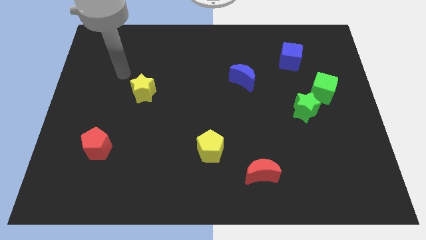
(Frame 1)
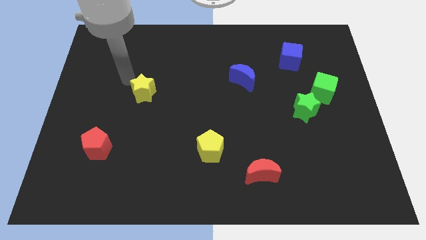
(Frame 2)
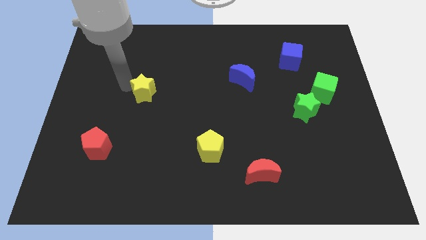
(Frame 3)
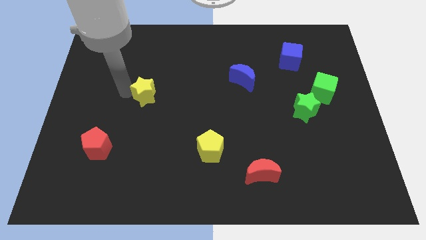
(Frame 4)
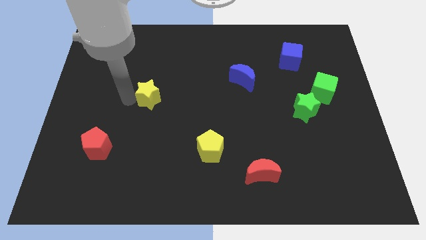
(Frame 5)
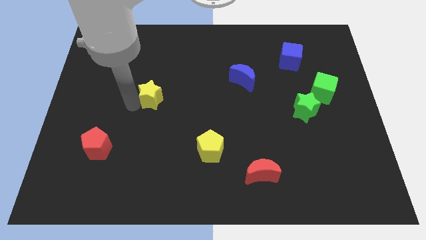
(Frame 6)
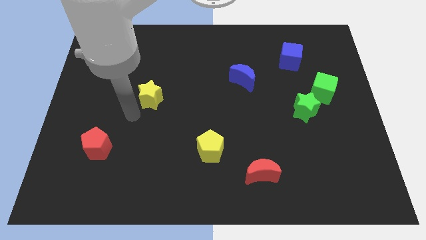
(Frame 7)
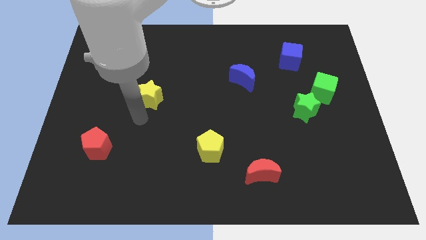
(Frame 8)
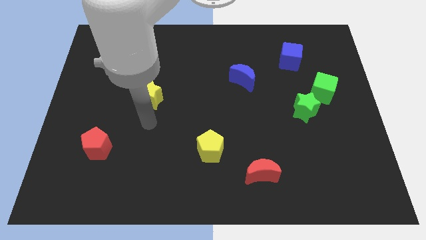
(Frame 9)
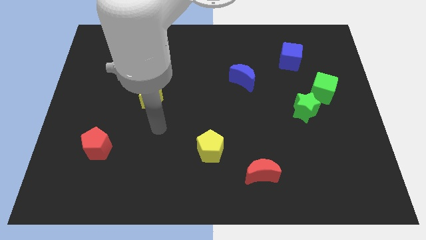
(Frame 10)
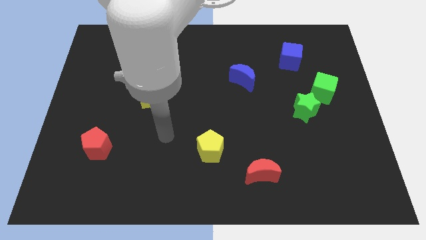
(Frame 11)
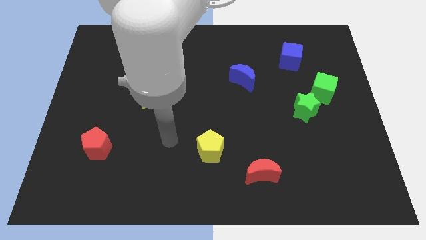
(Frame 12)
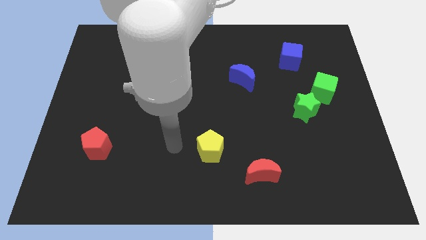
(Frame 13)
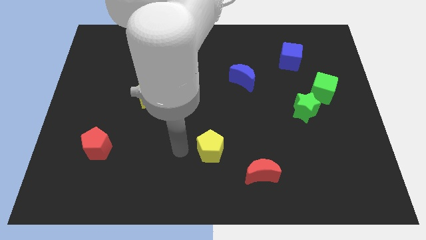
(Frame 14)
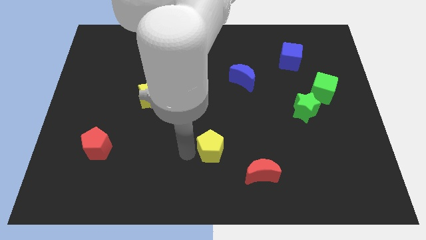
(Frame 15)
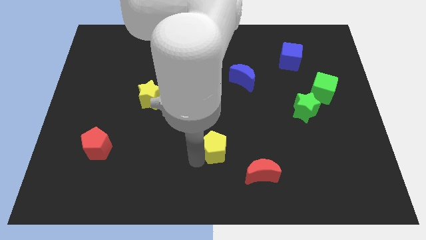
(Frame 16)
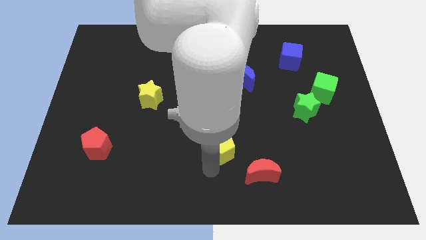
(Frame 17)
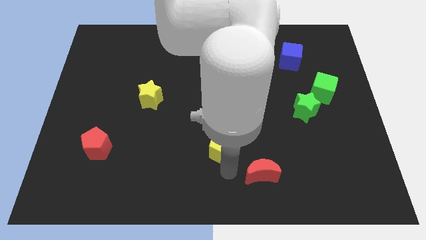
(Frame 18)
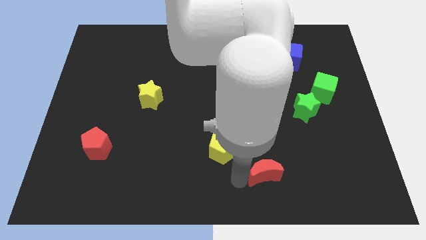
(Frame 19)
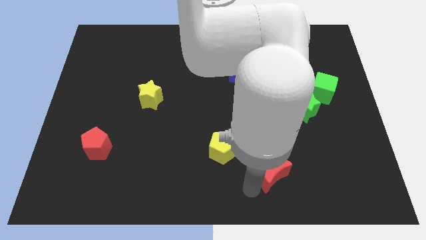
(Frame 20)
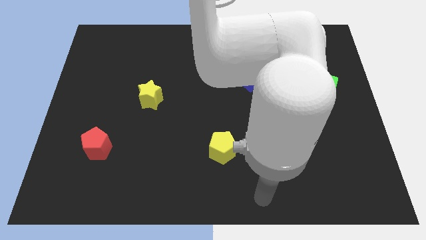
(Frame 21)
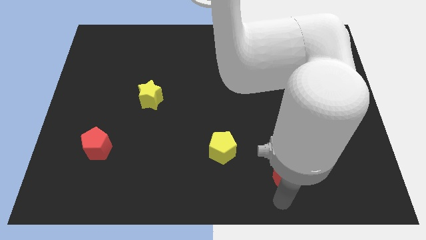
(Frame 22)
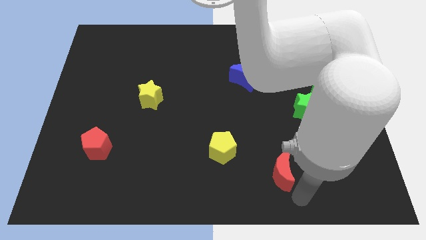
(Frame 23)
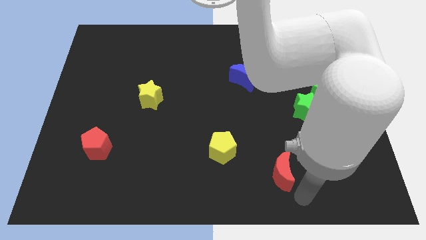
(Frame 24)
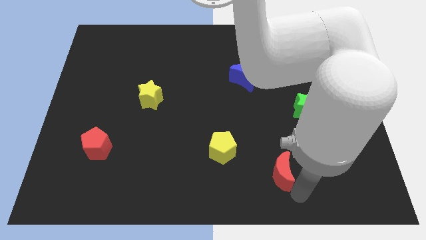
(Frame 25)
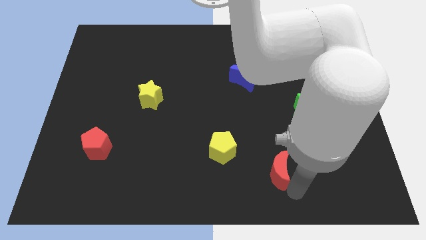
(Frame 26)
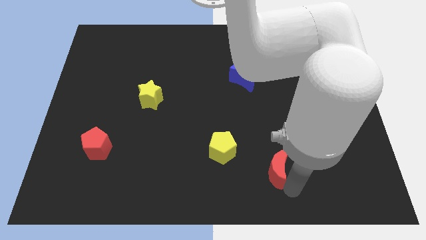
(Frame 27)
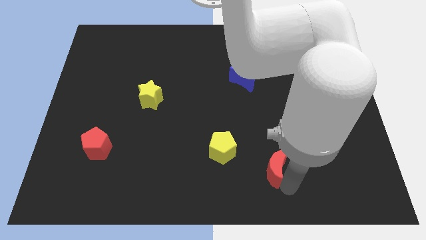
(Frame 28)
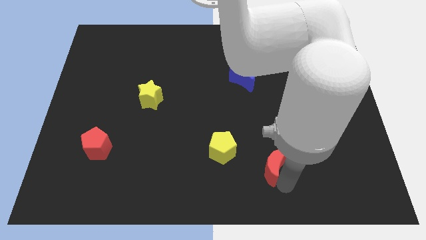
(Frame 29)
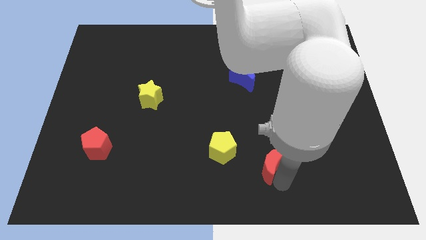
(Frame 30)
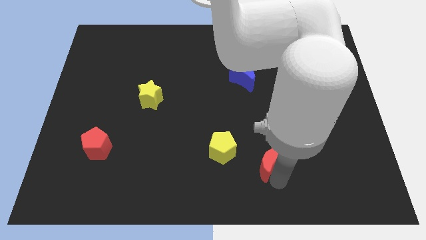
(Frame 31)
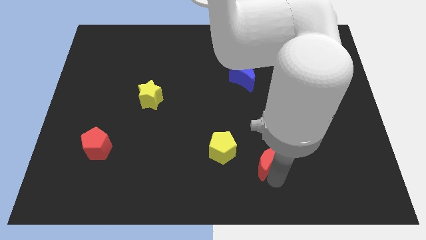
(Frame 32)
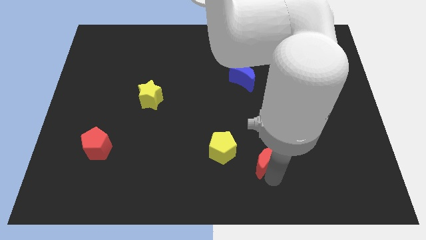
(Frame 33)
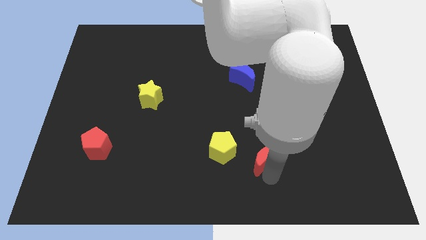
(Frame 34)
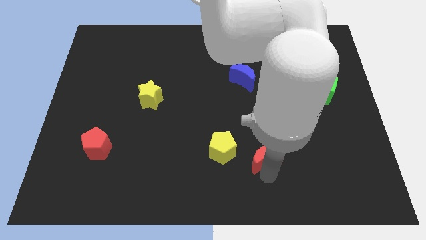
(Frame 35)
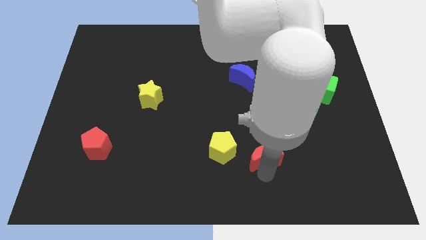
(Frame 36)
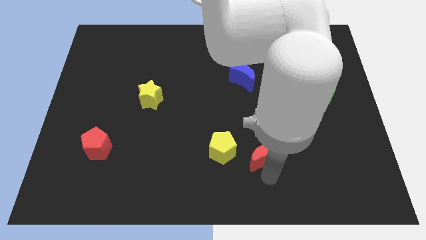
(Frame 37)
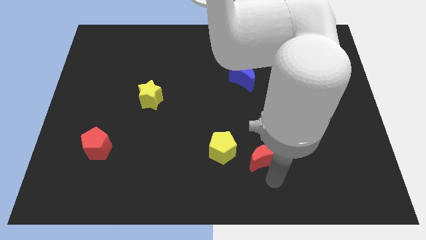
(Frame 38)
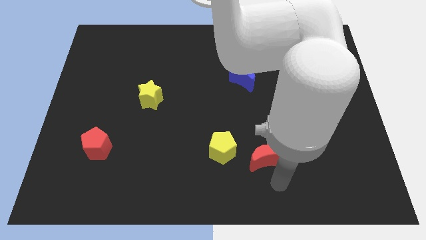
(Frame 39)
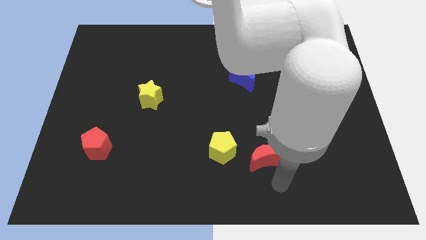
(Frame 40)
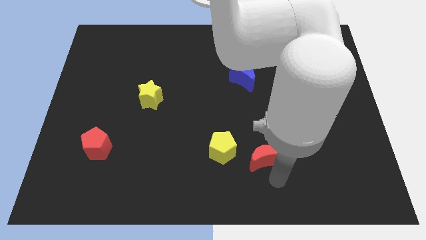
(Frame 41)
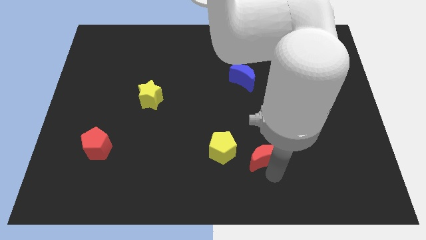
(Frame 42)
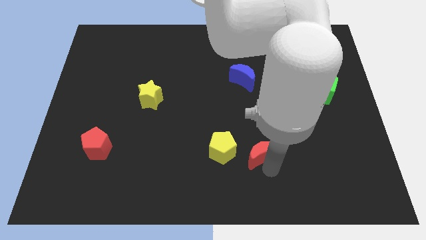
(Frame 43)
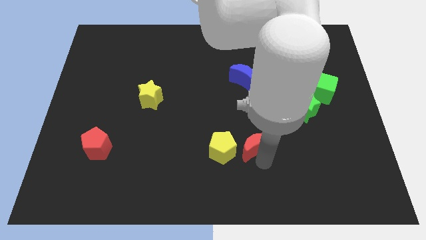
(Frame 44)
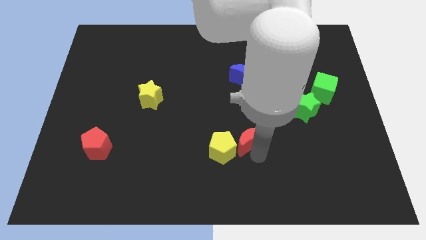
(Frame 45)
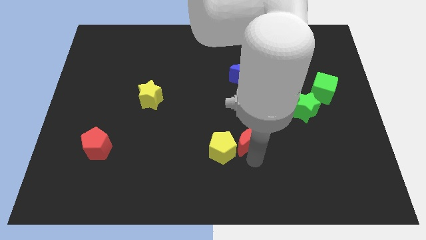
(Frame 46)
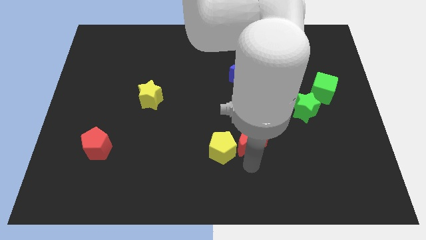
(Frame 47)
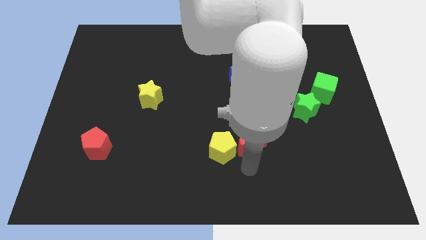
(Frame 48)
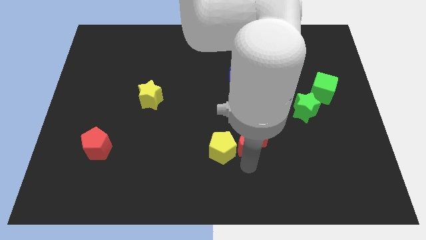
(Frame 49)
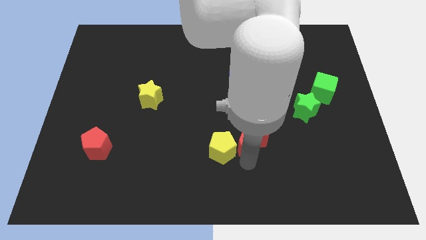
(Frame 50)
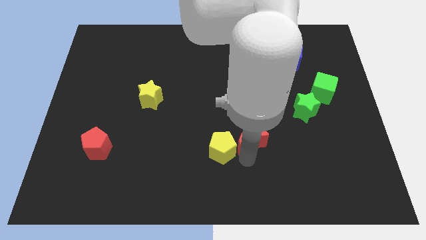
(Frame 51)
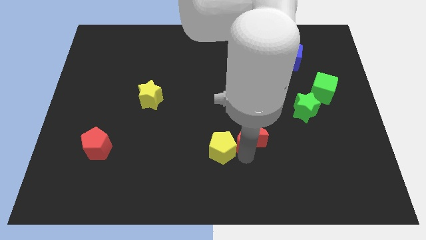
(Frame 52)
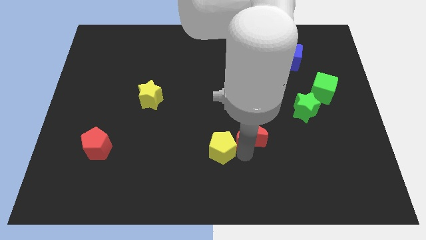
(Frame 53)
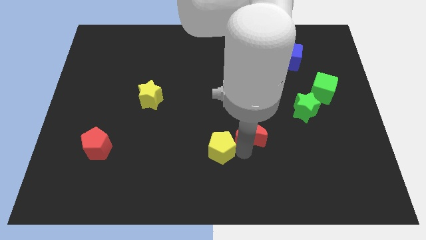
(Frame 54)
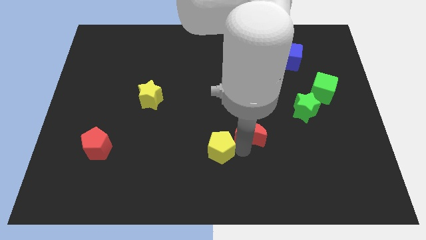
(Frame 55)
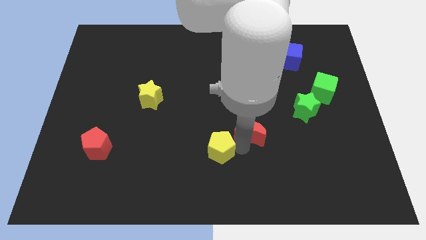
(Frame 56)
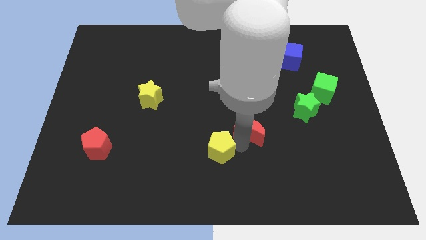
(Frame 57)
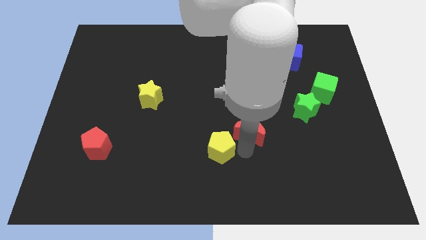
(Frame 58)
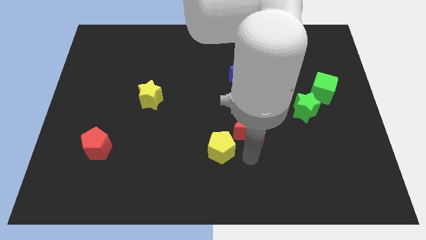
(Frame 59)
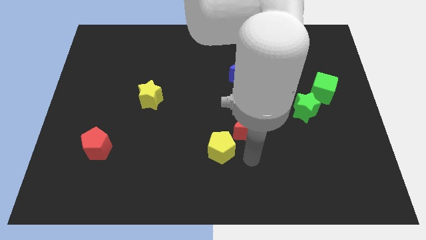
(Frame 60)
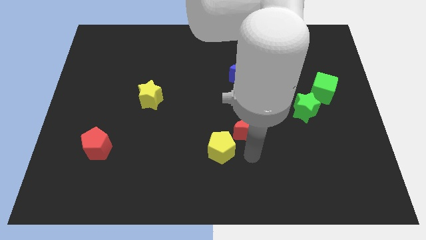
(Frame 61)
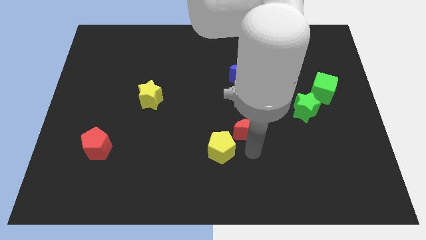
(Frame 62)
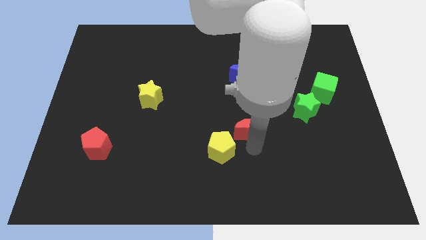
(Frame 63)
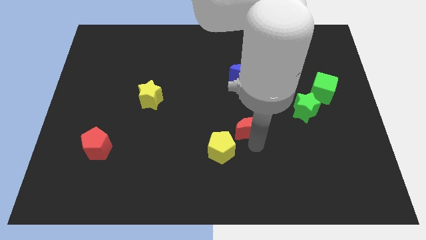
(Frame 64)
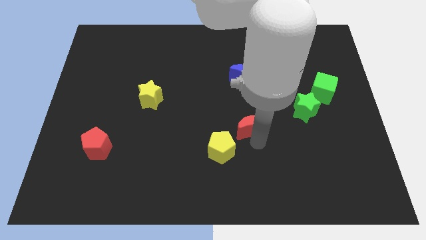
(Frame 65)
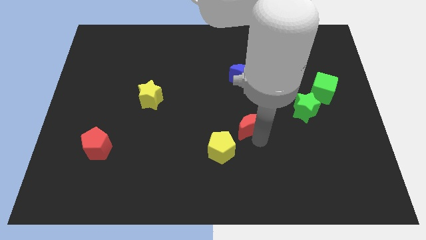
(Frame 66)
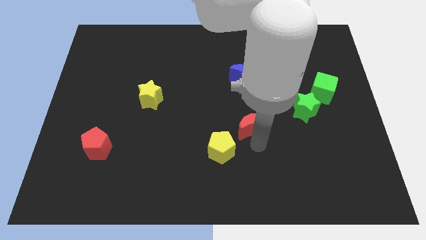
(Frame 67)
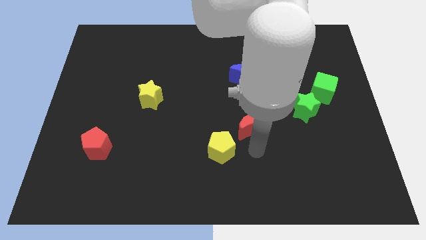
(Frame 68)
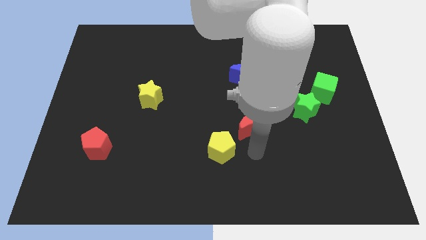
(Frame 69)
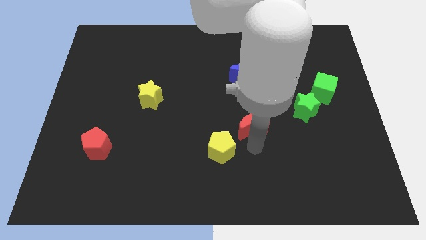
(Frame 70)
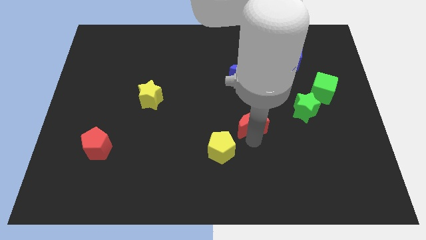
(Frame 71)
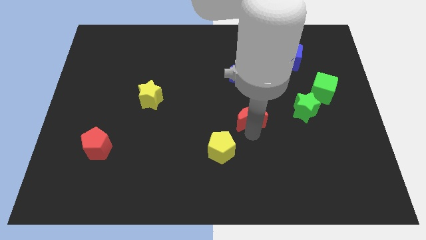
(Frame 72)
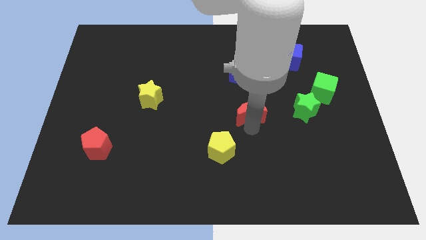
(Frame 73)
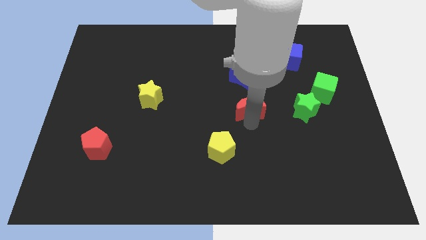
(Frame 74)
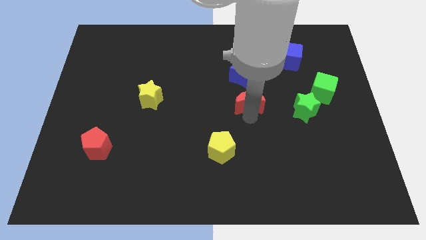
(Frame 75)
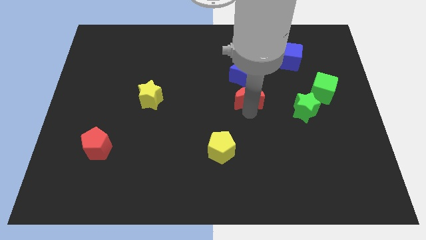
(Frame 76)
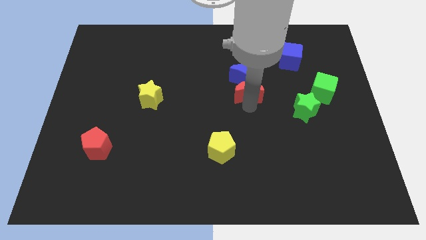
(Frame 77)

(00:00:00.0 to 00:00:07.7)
push the red moon to the blue moon
